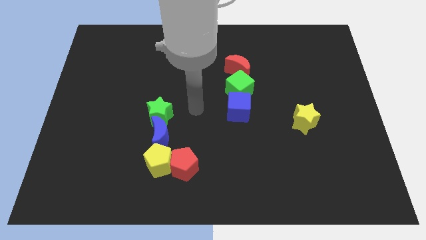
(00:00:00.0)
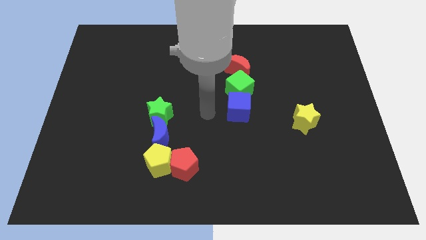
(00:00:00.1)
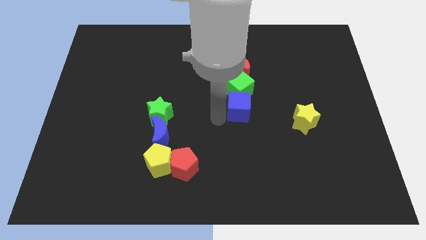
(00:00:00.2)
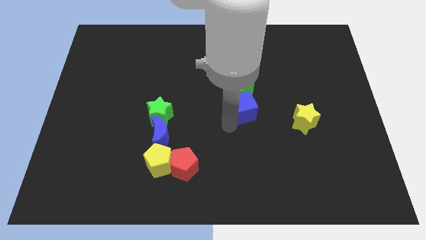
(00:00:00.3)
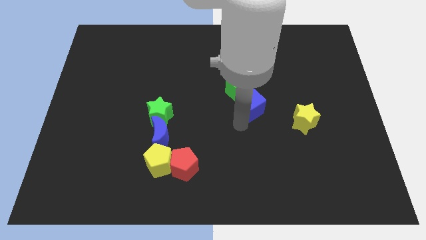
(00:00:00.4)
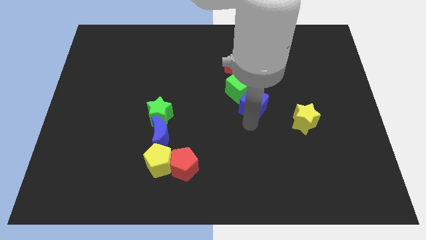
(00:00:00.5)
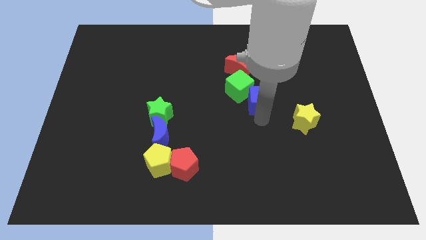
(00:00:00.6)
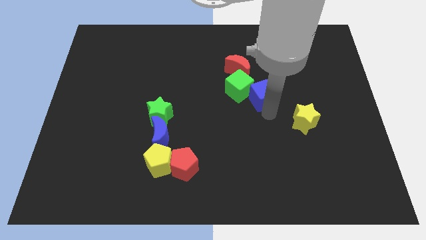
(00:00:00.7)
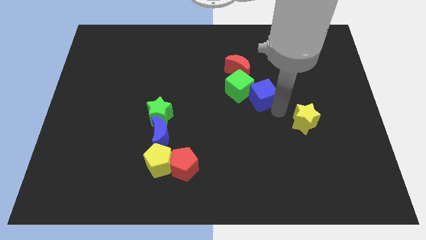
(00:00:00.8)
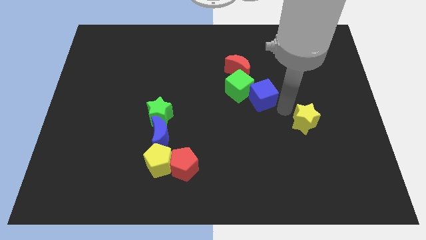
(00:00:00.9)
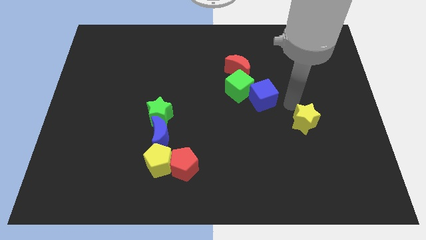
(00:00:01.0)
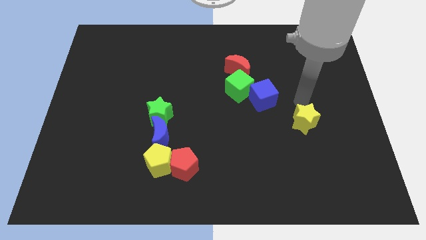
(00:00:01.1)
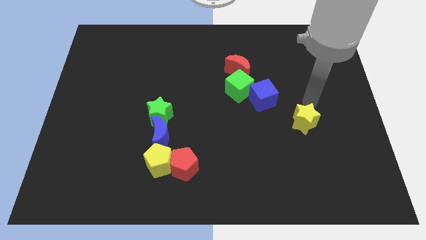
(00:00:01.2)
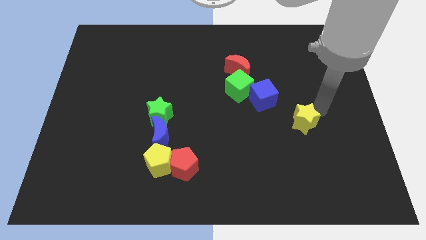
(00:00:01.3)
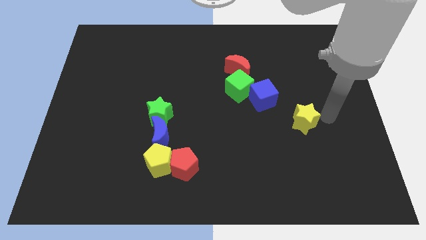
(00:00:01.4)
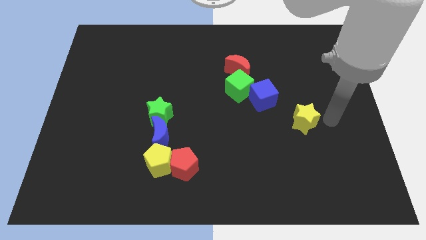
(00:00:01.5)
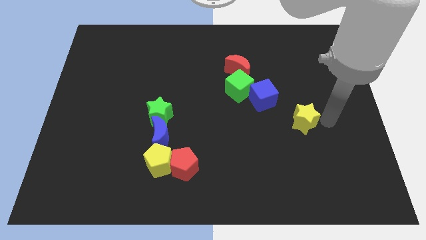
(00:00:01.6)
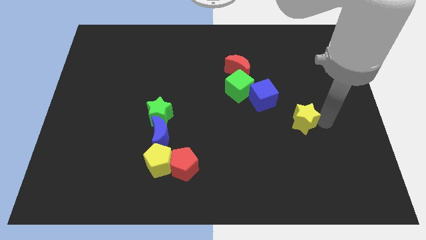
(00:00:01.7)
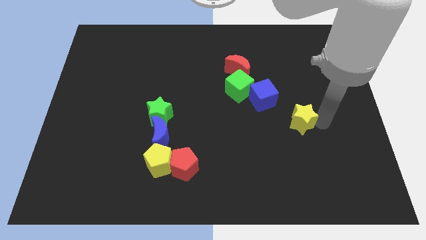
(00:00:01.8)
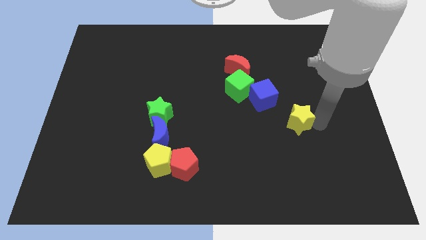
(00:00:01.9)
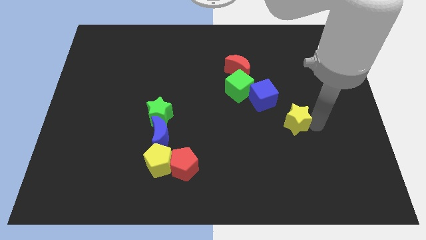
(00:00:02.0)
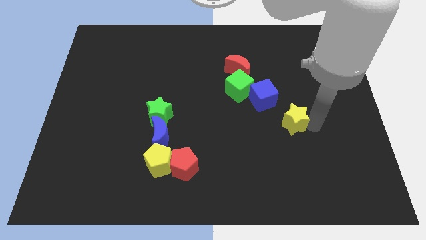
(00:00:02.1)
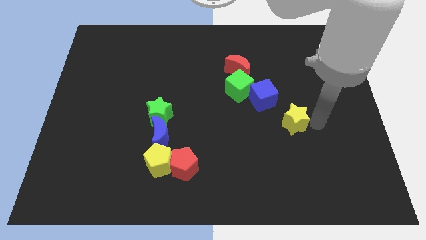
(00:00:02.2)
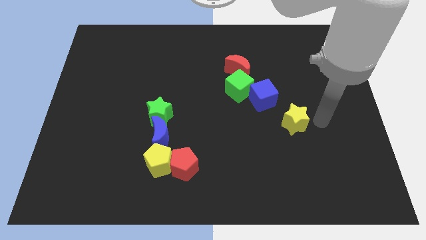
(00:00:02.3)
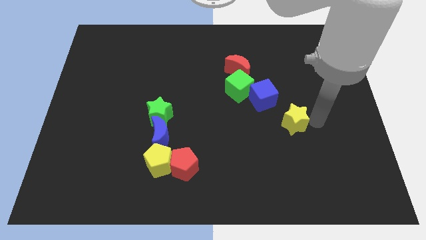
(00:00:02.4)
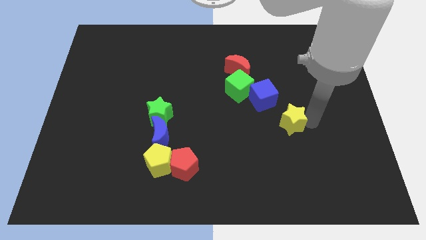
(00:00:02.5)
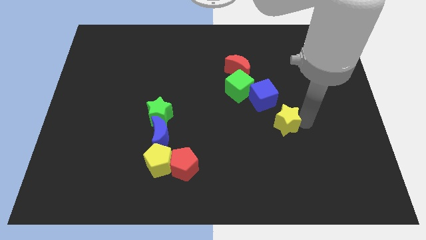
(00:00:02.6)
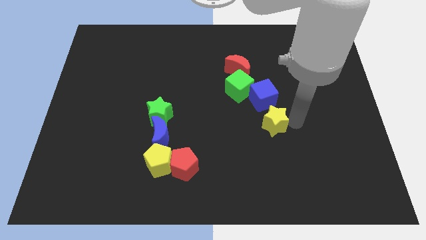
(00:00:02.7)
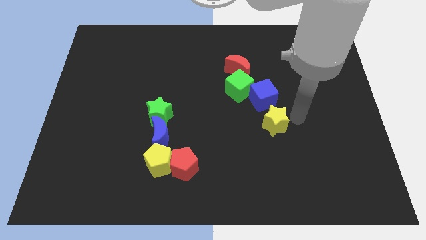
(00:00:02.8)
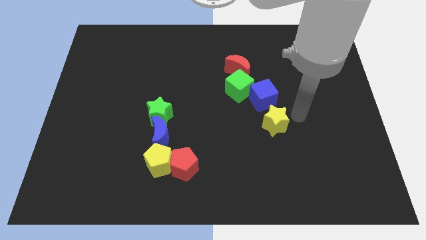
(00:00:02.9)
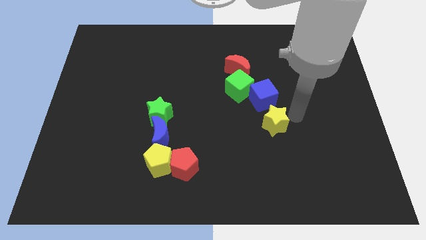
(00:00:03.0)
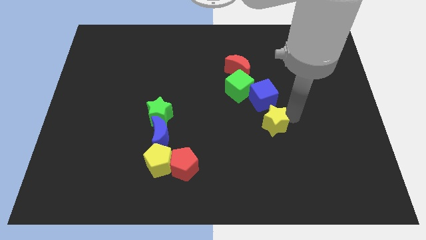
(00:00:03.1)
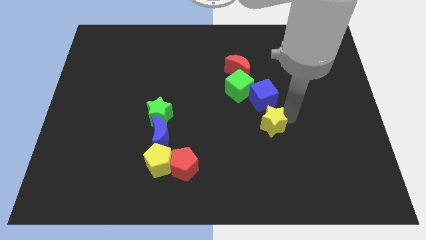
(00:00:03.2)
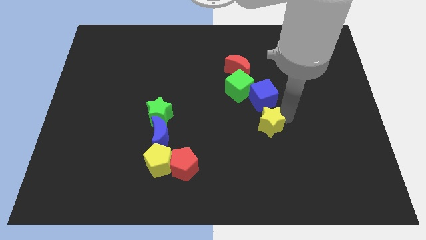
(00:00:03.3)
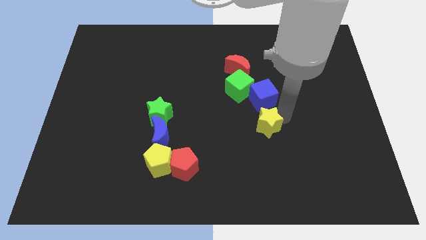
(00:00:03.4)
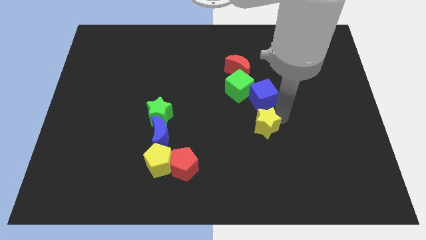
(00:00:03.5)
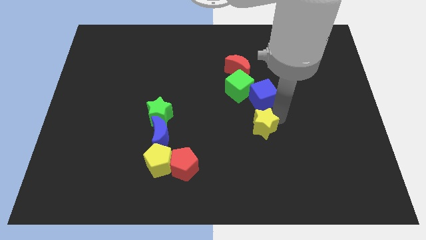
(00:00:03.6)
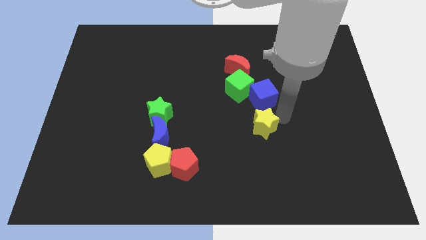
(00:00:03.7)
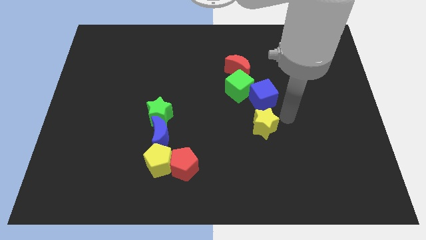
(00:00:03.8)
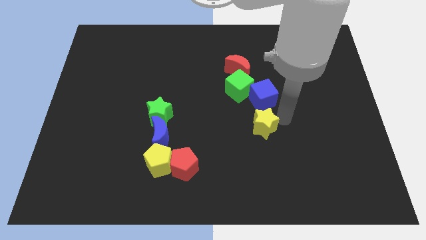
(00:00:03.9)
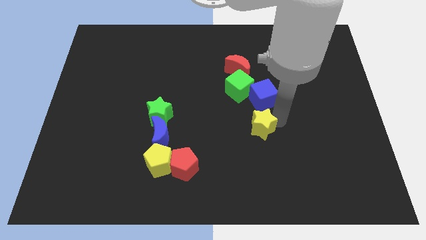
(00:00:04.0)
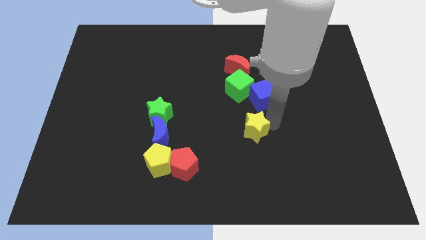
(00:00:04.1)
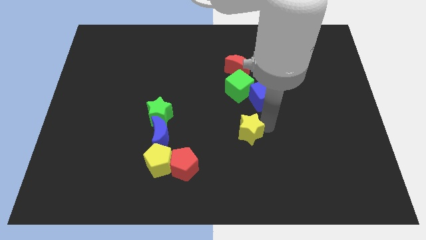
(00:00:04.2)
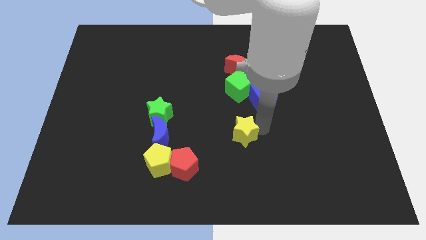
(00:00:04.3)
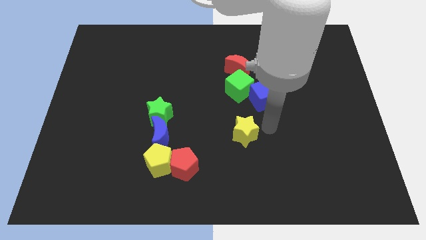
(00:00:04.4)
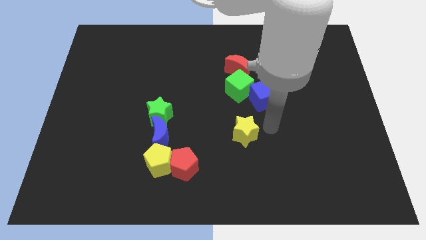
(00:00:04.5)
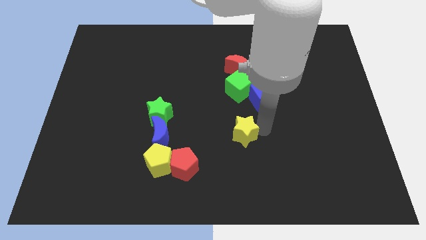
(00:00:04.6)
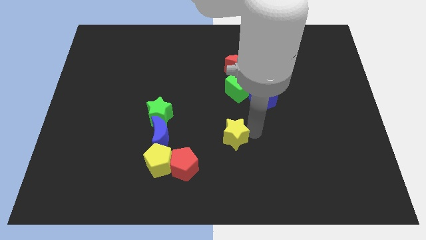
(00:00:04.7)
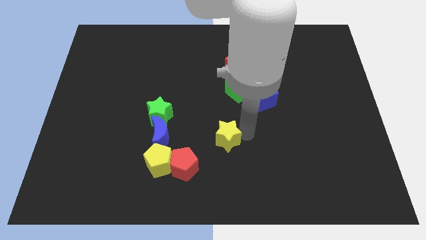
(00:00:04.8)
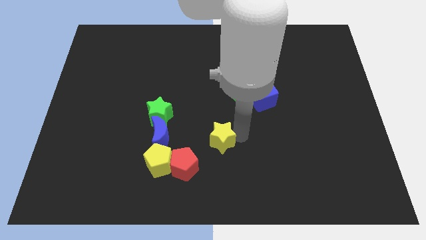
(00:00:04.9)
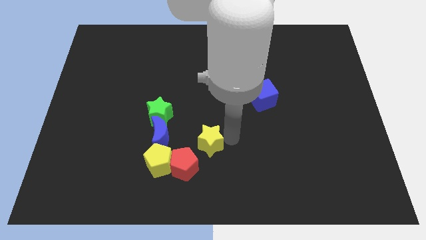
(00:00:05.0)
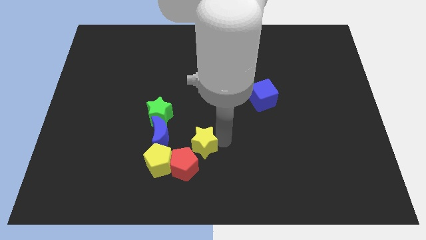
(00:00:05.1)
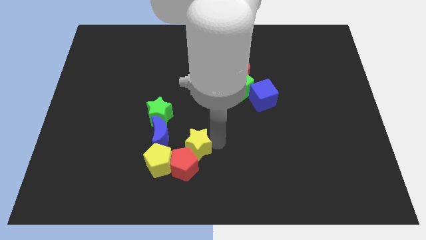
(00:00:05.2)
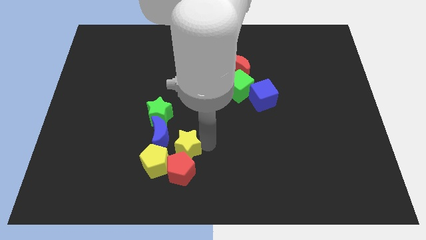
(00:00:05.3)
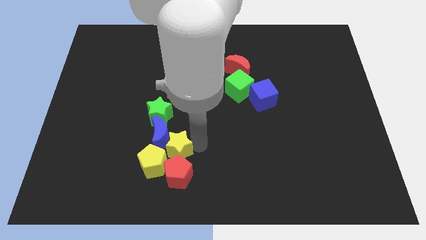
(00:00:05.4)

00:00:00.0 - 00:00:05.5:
push the yellow star towards the yellow pentagon

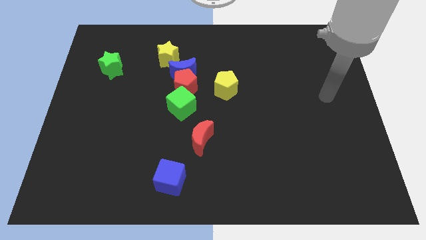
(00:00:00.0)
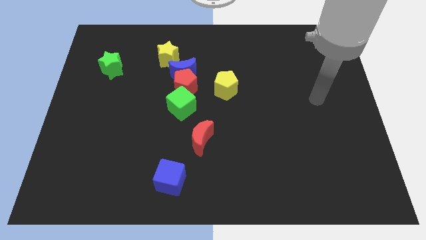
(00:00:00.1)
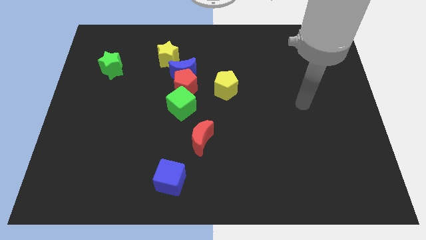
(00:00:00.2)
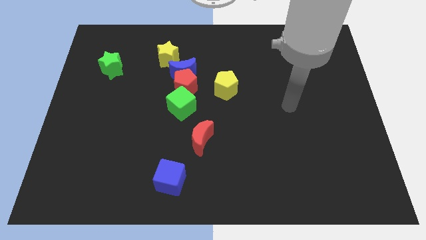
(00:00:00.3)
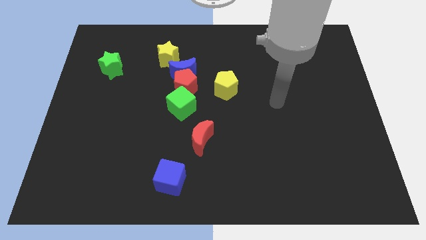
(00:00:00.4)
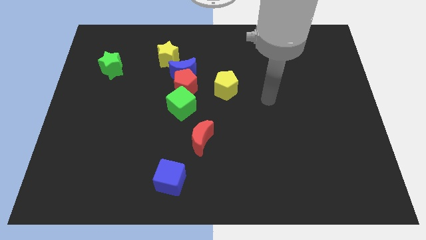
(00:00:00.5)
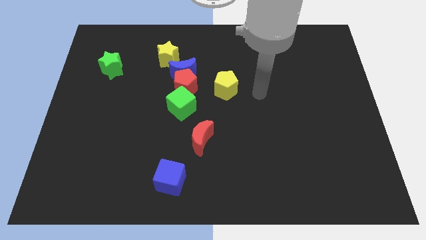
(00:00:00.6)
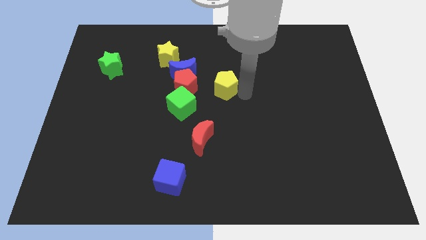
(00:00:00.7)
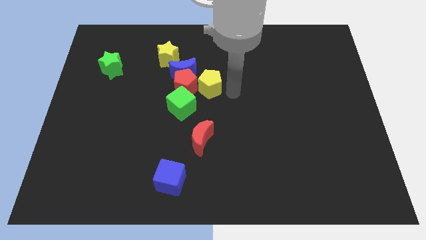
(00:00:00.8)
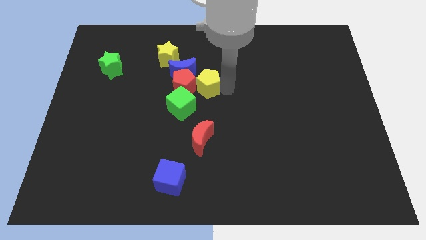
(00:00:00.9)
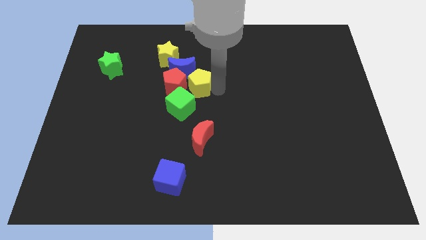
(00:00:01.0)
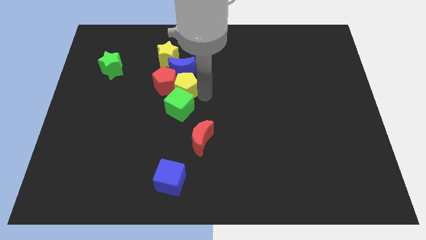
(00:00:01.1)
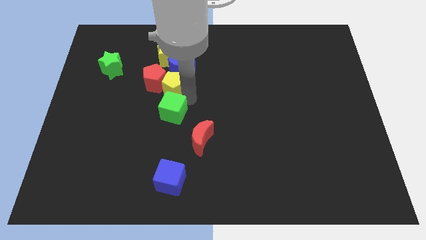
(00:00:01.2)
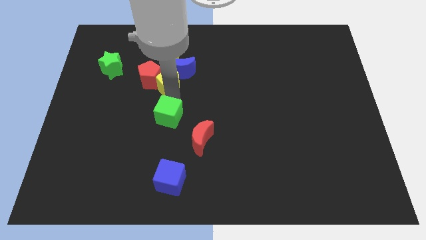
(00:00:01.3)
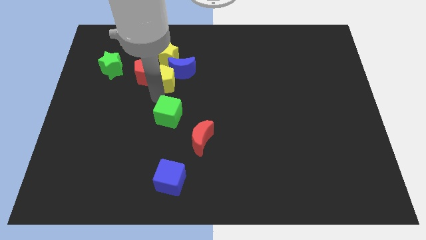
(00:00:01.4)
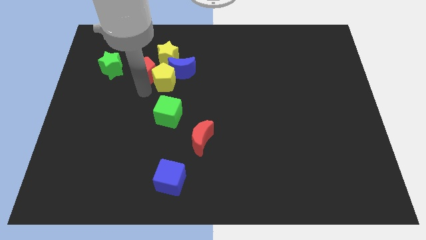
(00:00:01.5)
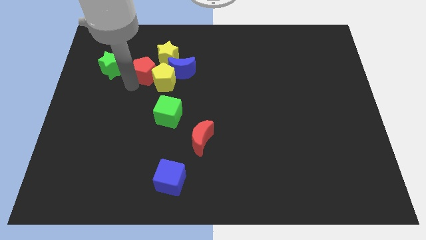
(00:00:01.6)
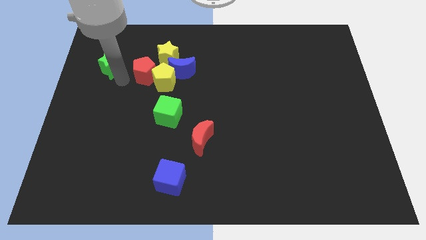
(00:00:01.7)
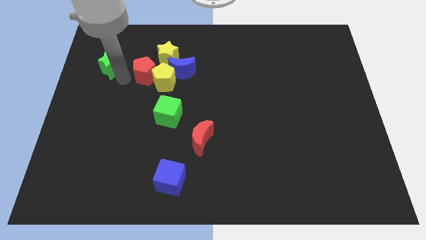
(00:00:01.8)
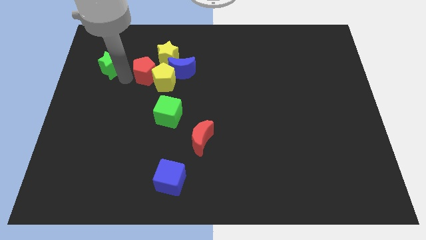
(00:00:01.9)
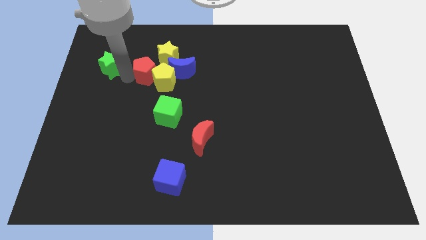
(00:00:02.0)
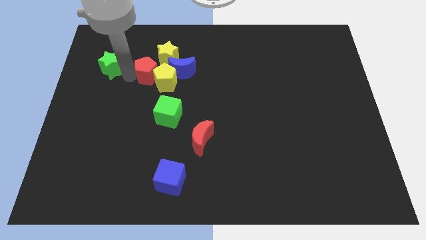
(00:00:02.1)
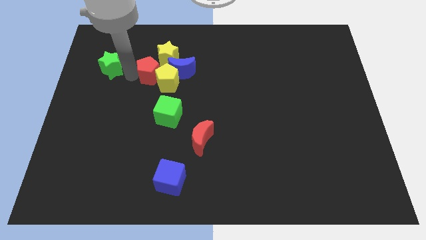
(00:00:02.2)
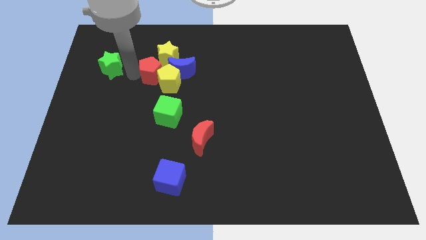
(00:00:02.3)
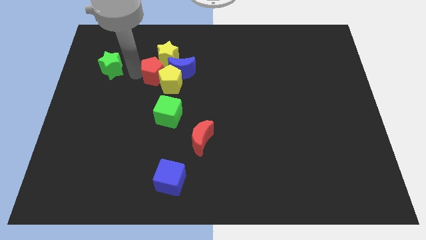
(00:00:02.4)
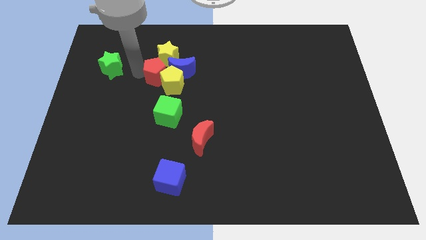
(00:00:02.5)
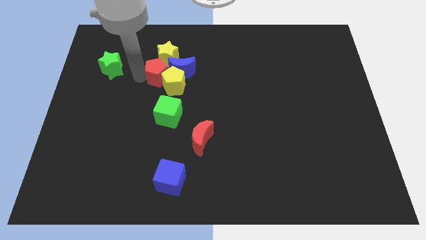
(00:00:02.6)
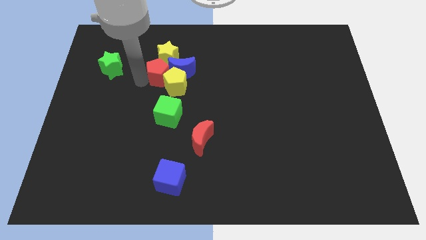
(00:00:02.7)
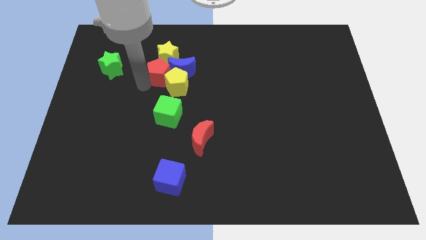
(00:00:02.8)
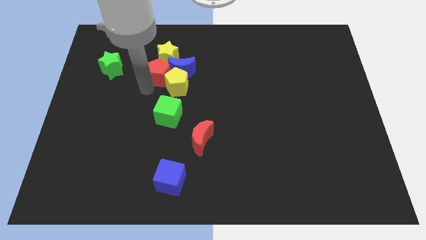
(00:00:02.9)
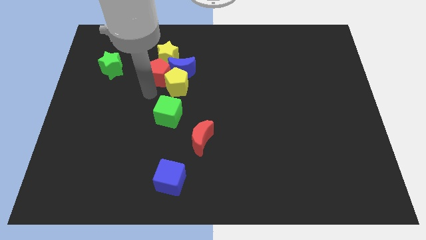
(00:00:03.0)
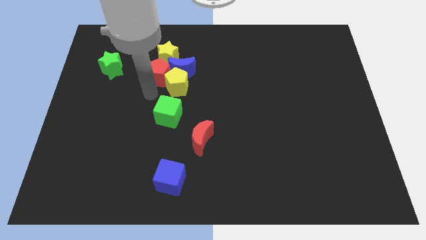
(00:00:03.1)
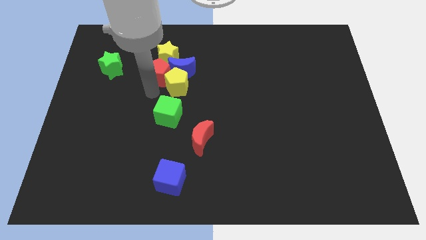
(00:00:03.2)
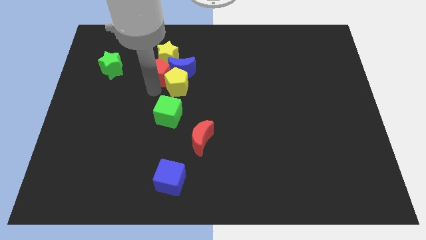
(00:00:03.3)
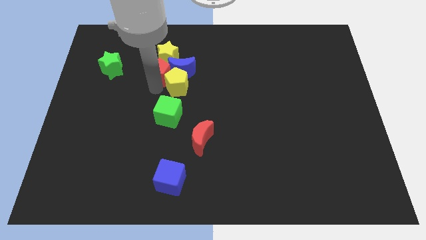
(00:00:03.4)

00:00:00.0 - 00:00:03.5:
slide the red pentagon next to the yellow star
